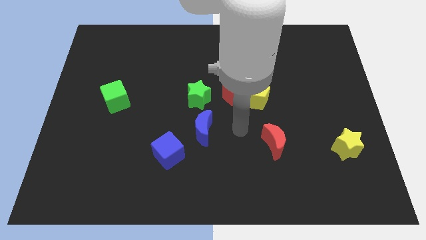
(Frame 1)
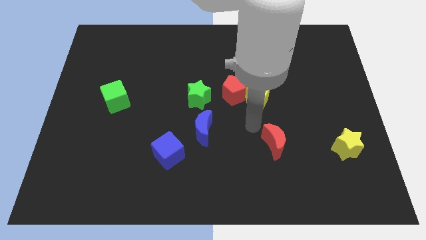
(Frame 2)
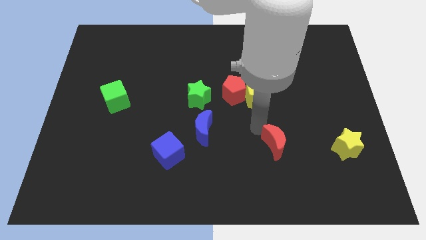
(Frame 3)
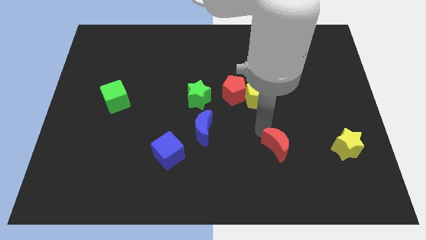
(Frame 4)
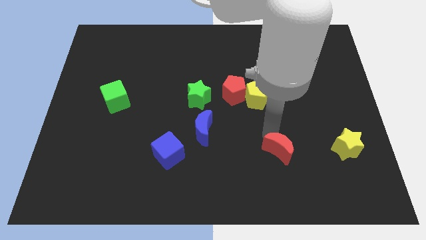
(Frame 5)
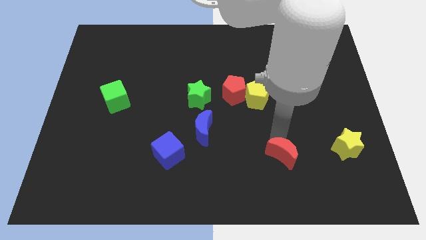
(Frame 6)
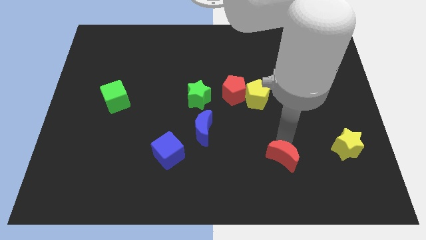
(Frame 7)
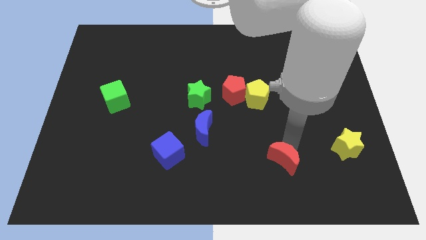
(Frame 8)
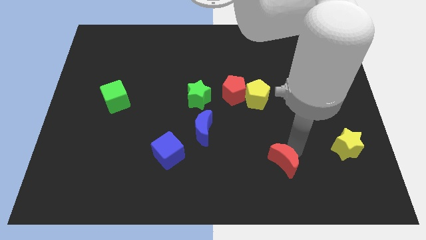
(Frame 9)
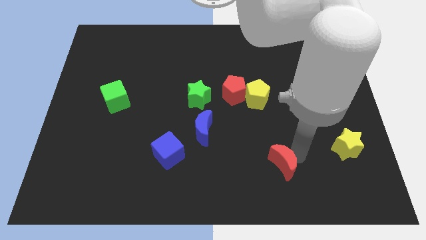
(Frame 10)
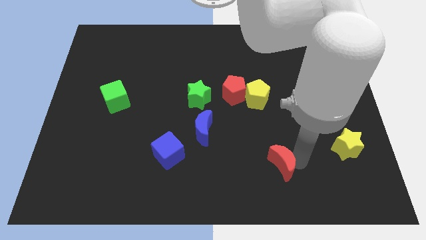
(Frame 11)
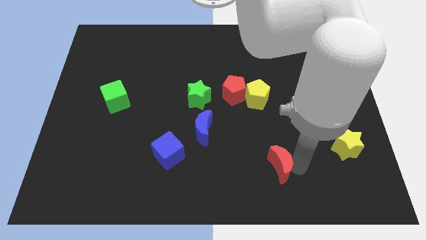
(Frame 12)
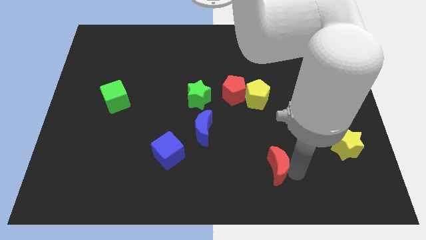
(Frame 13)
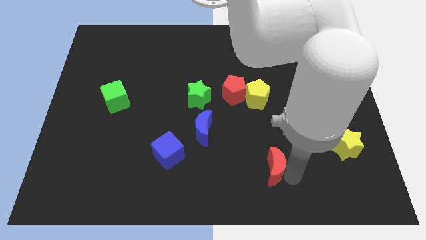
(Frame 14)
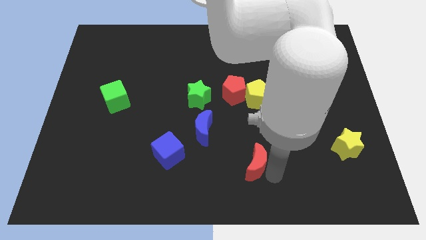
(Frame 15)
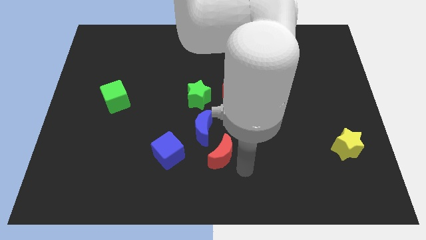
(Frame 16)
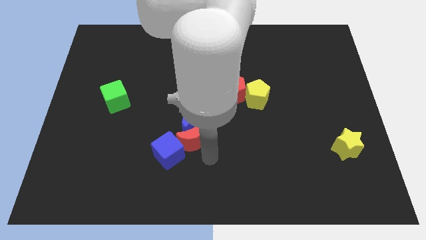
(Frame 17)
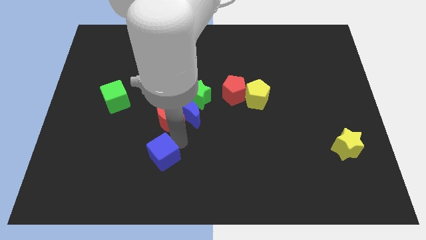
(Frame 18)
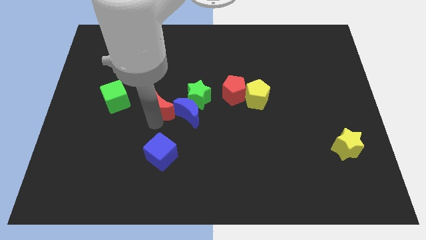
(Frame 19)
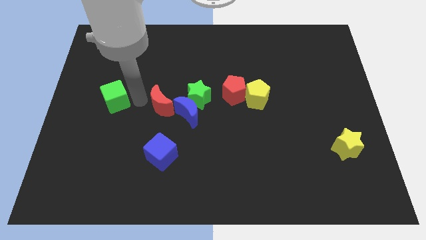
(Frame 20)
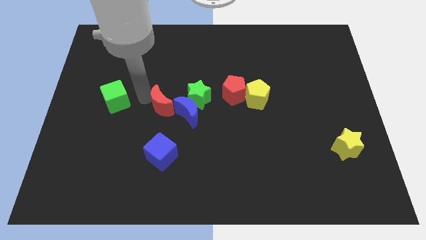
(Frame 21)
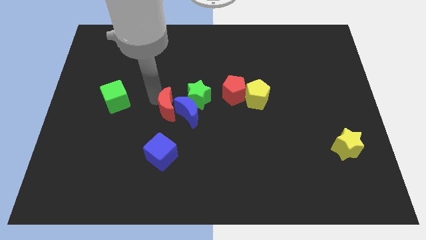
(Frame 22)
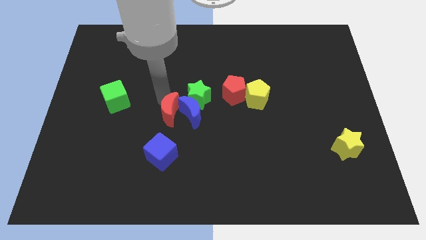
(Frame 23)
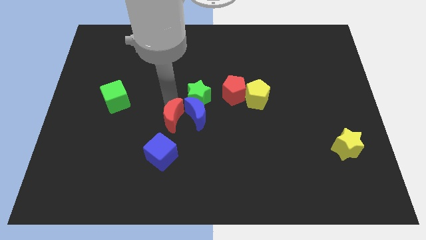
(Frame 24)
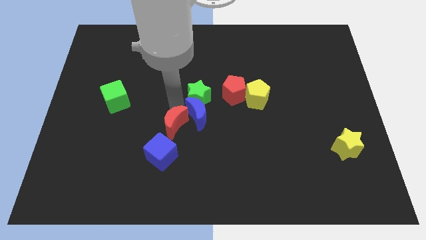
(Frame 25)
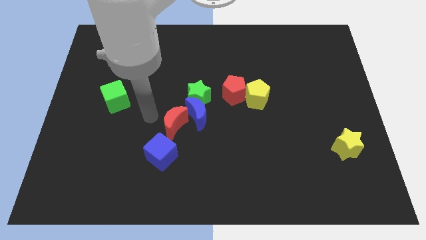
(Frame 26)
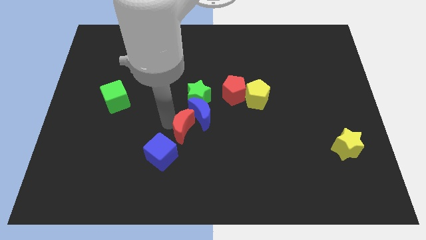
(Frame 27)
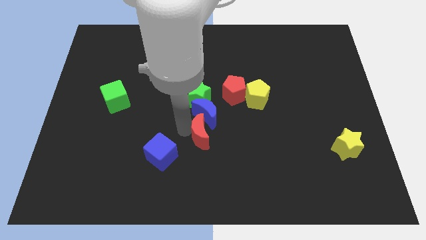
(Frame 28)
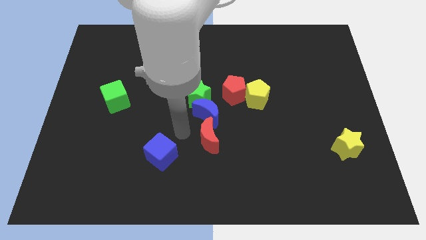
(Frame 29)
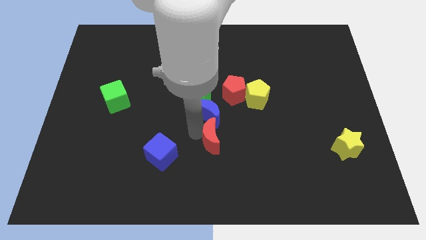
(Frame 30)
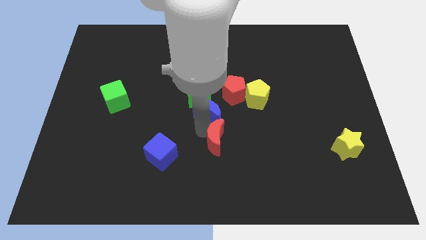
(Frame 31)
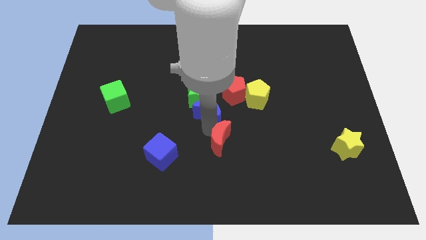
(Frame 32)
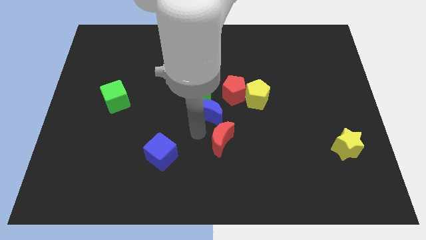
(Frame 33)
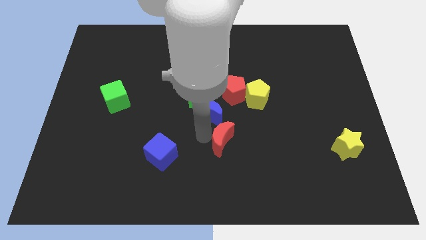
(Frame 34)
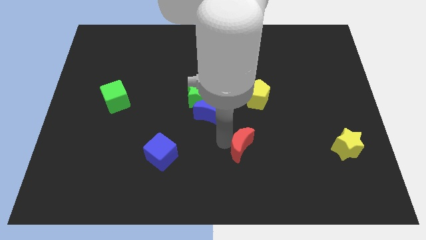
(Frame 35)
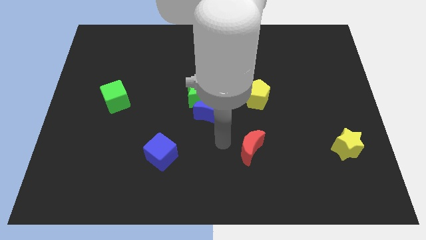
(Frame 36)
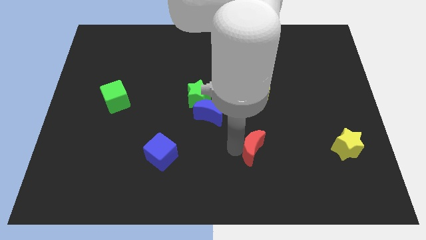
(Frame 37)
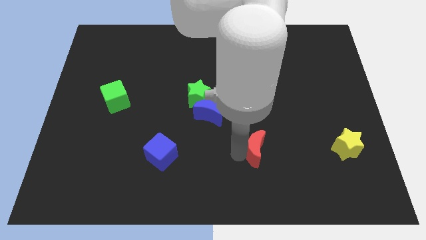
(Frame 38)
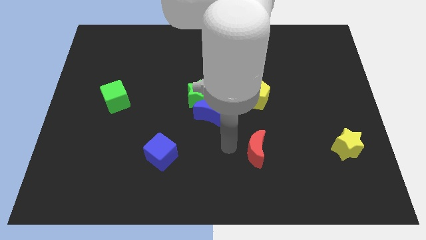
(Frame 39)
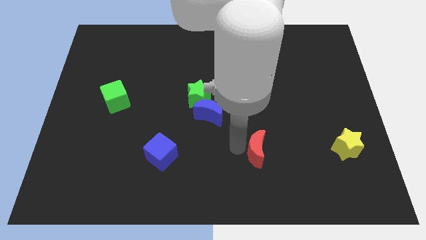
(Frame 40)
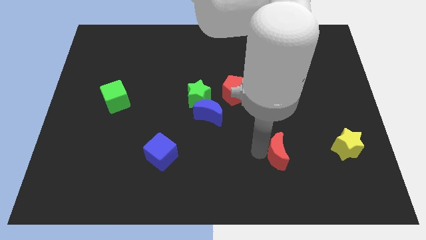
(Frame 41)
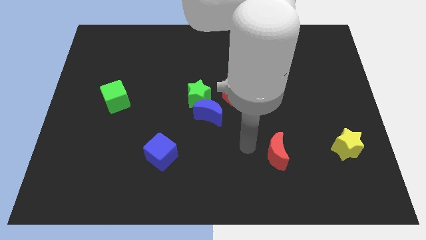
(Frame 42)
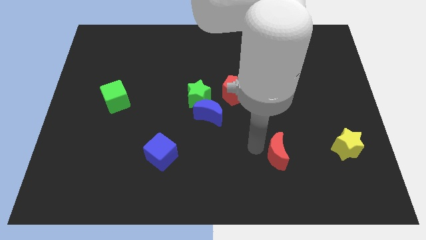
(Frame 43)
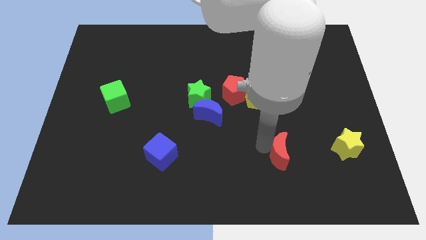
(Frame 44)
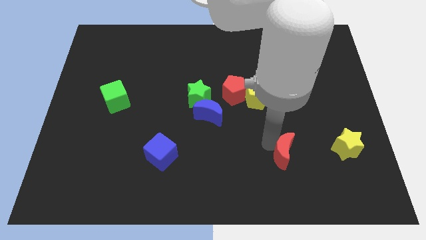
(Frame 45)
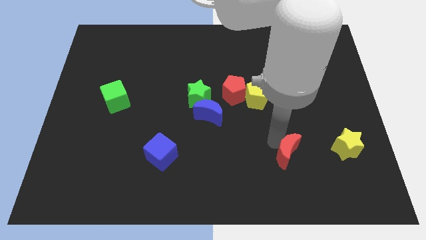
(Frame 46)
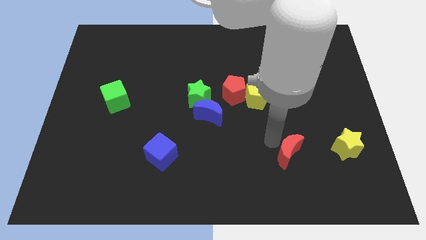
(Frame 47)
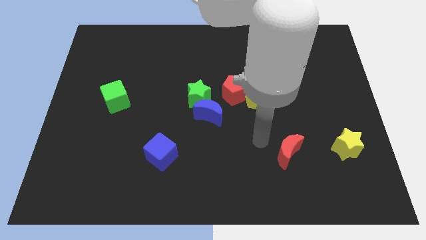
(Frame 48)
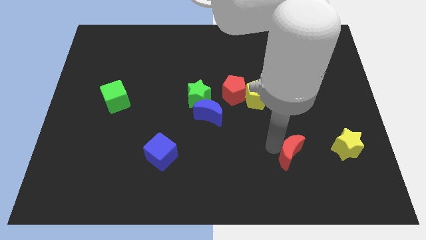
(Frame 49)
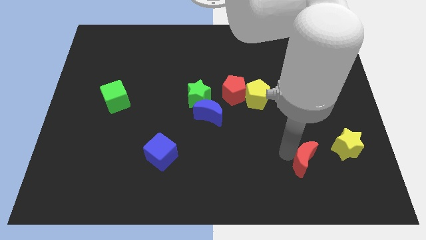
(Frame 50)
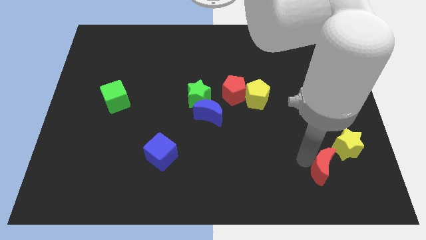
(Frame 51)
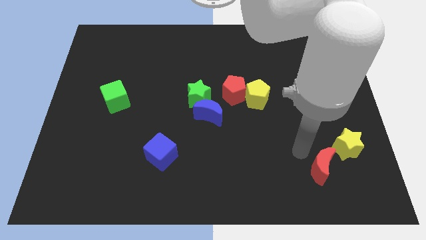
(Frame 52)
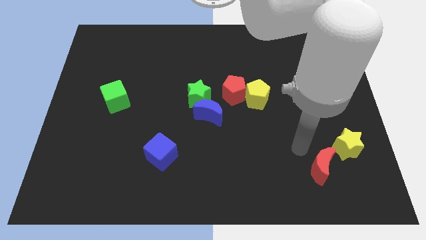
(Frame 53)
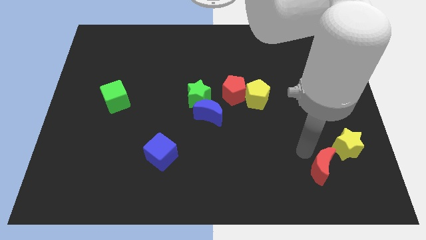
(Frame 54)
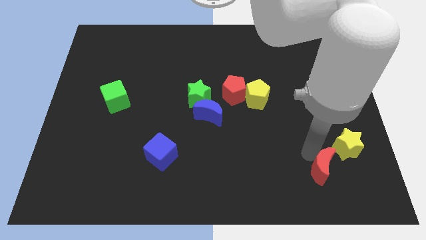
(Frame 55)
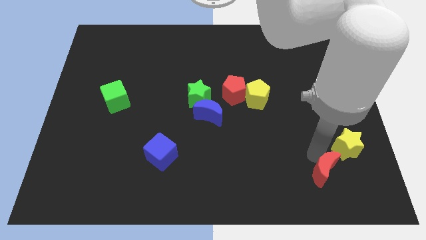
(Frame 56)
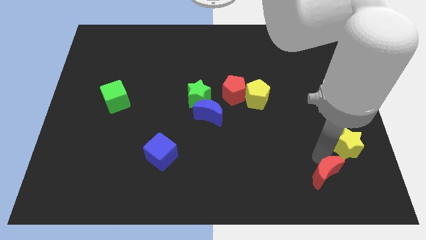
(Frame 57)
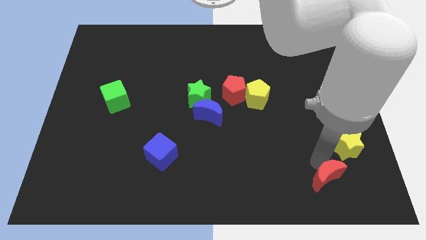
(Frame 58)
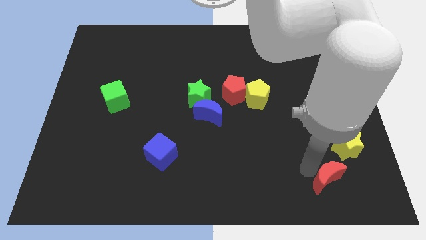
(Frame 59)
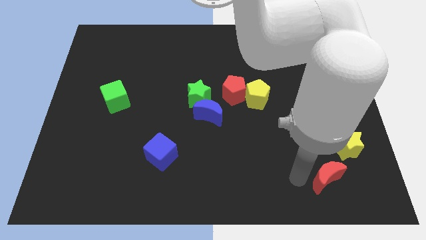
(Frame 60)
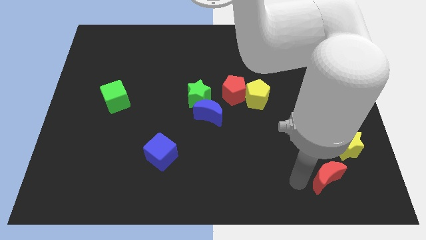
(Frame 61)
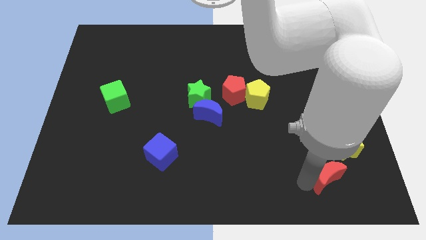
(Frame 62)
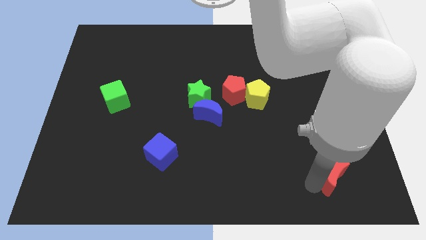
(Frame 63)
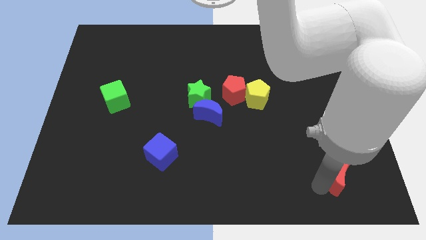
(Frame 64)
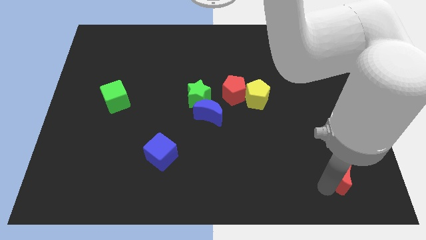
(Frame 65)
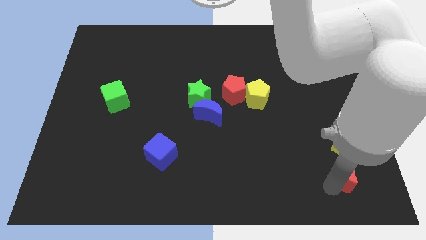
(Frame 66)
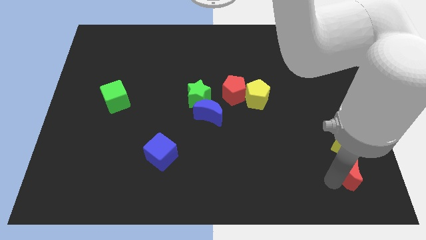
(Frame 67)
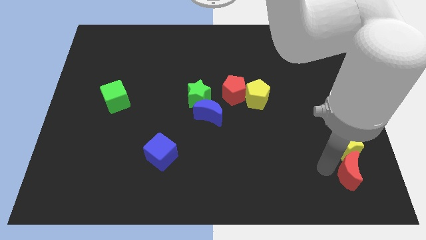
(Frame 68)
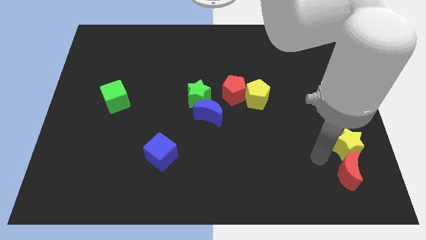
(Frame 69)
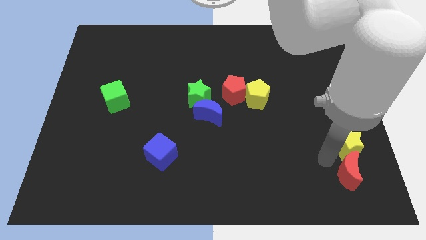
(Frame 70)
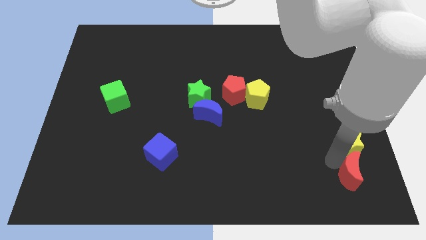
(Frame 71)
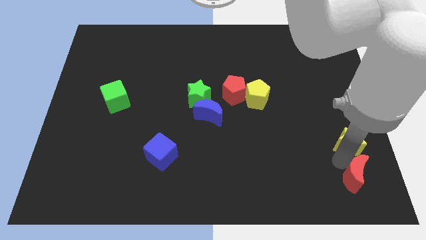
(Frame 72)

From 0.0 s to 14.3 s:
slide the red moon to the lower right corner
